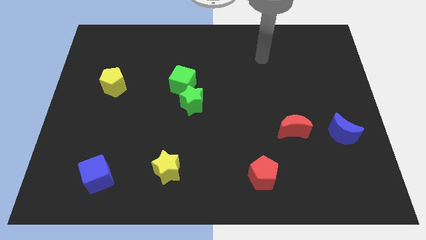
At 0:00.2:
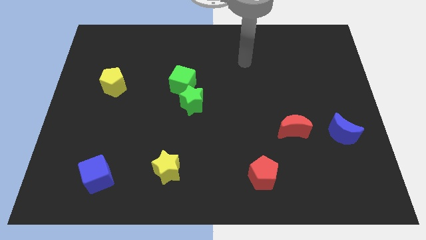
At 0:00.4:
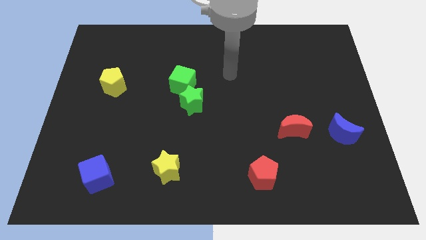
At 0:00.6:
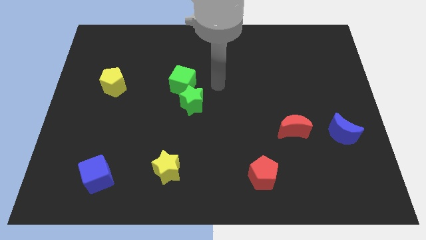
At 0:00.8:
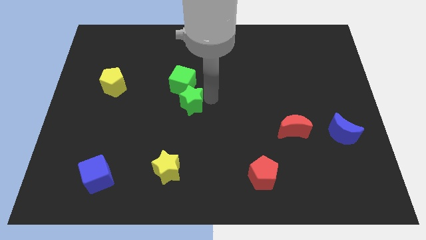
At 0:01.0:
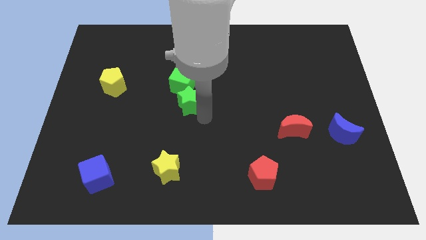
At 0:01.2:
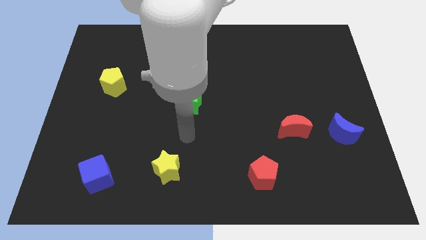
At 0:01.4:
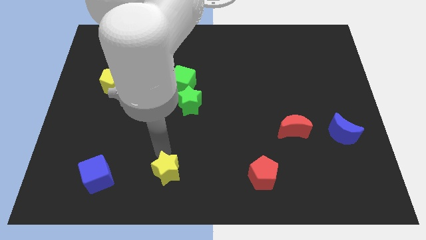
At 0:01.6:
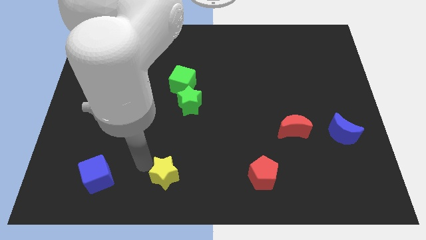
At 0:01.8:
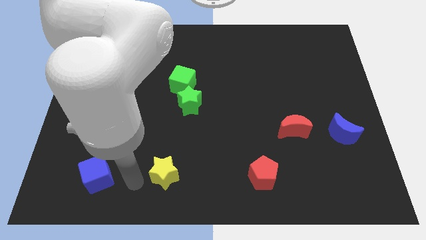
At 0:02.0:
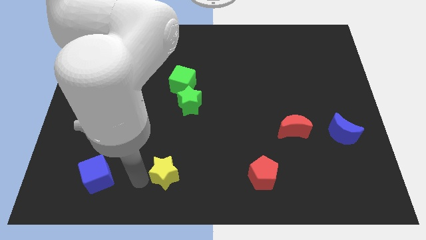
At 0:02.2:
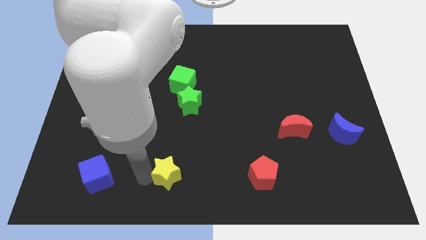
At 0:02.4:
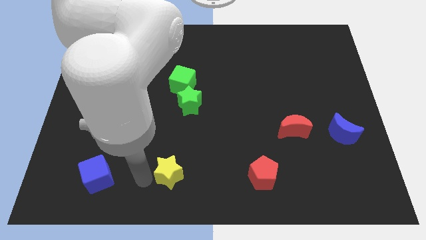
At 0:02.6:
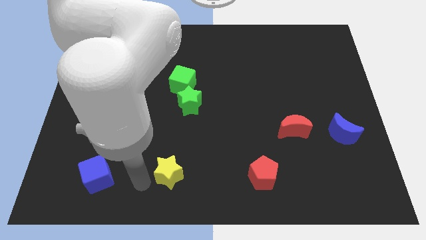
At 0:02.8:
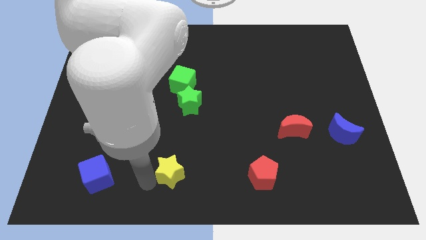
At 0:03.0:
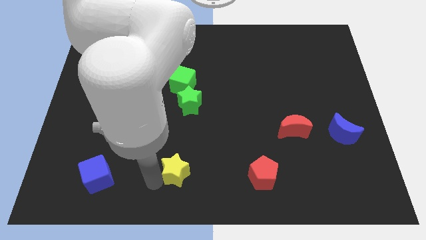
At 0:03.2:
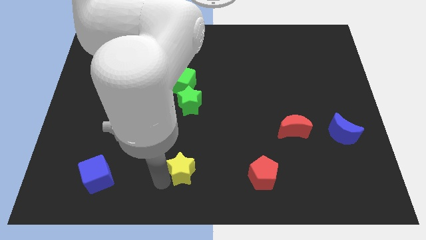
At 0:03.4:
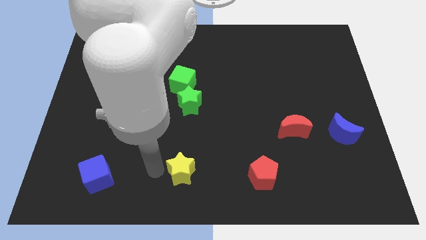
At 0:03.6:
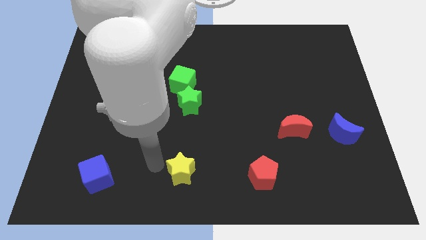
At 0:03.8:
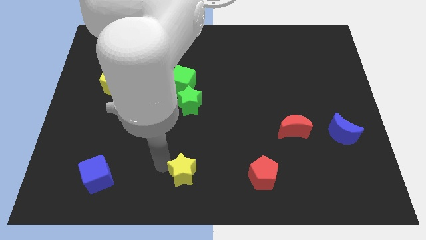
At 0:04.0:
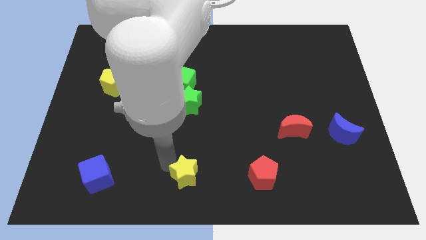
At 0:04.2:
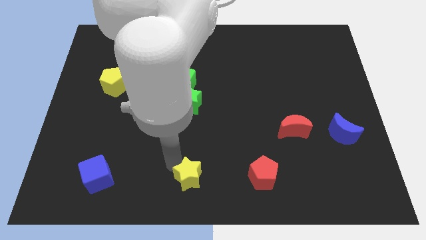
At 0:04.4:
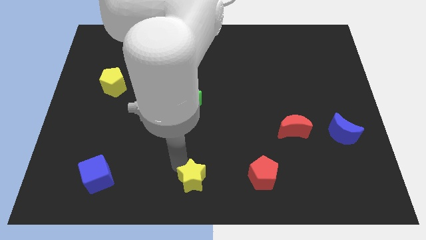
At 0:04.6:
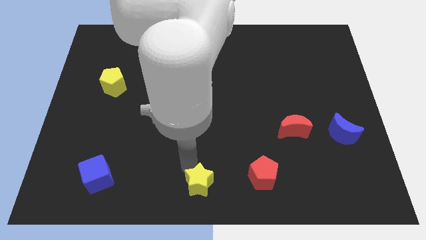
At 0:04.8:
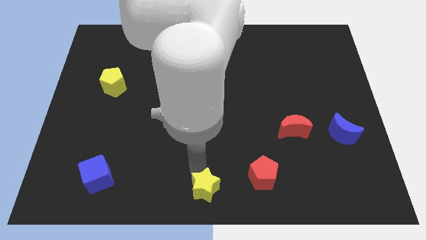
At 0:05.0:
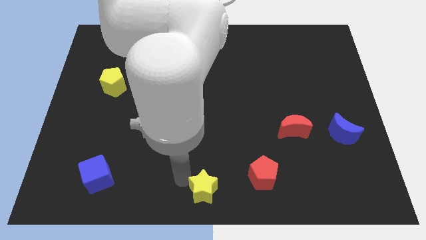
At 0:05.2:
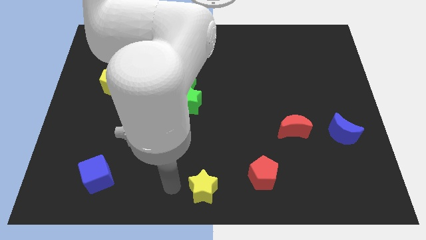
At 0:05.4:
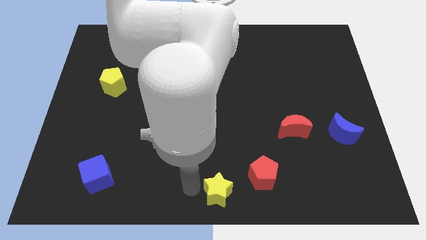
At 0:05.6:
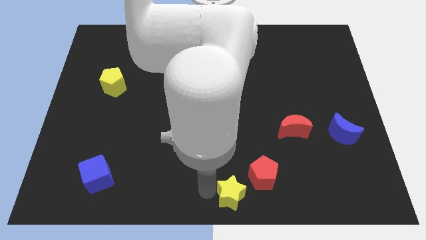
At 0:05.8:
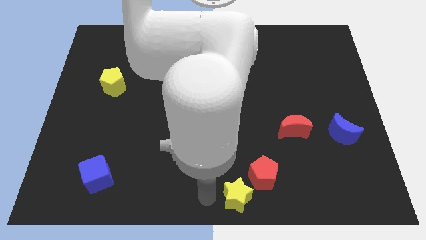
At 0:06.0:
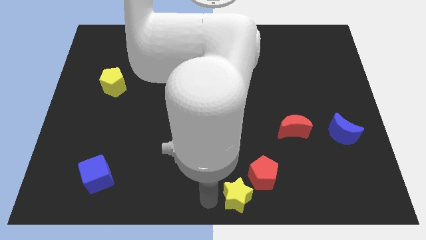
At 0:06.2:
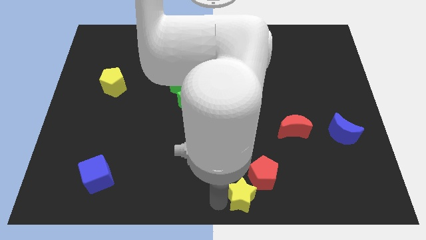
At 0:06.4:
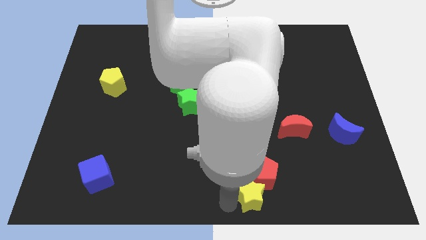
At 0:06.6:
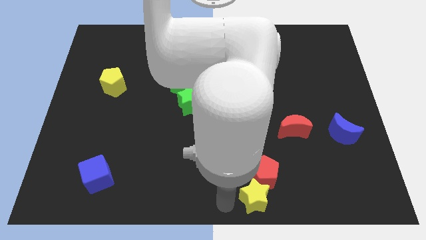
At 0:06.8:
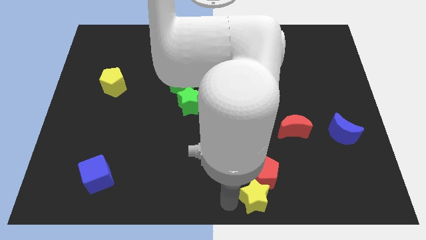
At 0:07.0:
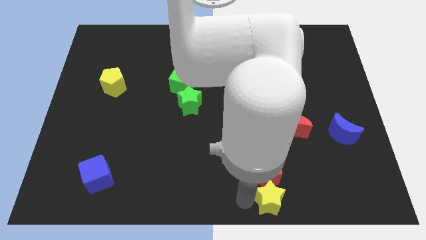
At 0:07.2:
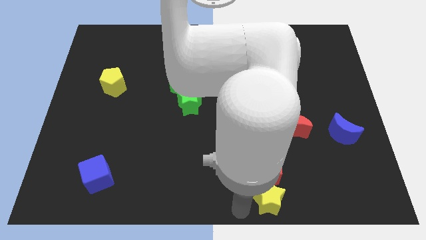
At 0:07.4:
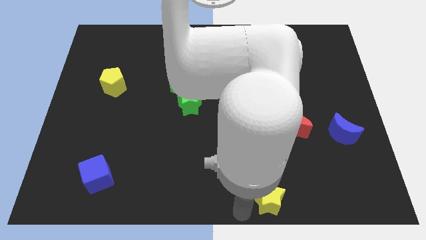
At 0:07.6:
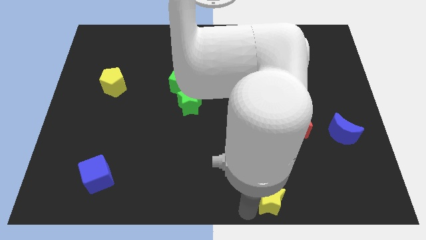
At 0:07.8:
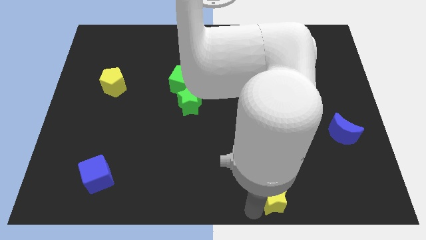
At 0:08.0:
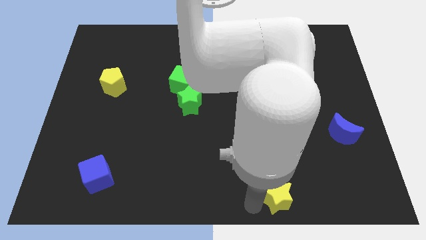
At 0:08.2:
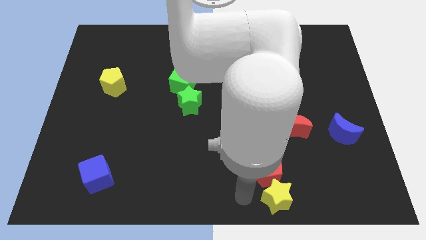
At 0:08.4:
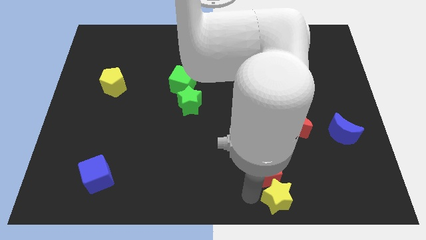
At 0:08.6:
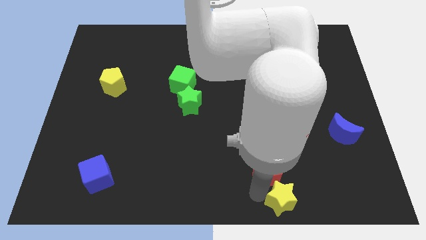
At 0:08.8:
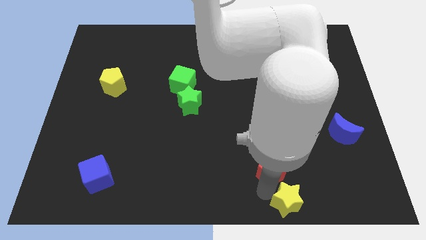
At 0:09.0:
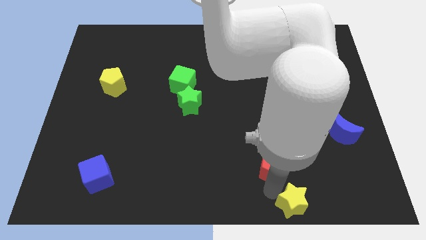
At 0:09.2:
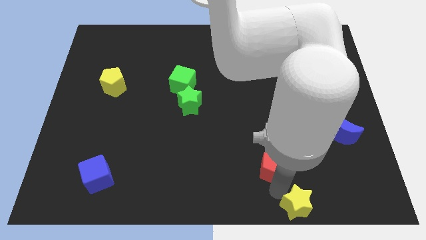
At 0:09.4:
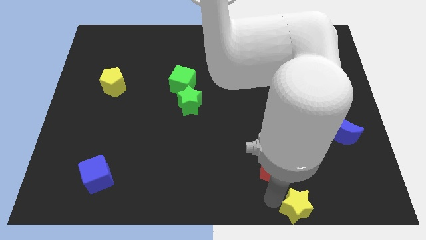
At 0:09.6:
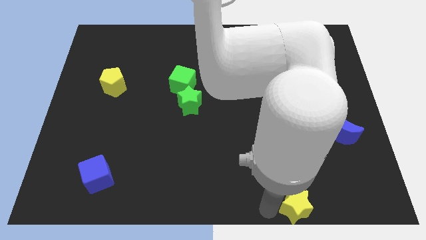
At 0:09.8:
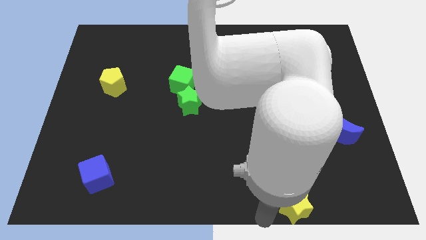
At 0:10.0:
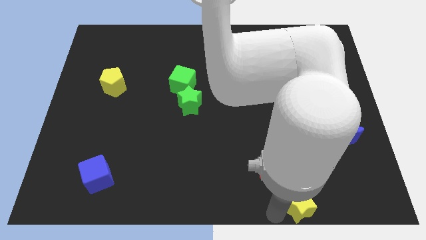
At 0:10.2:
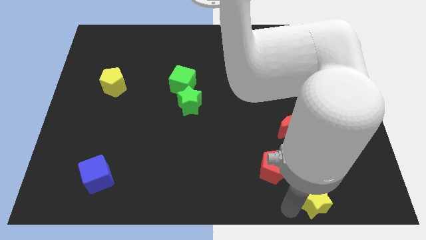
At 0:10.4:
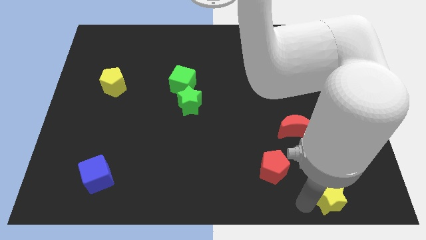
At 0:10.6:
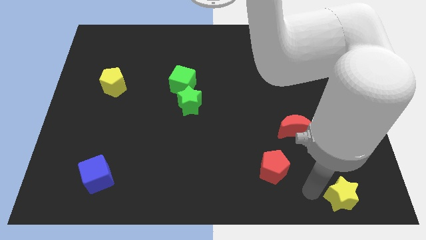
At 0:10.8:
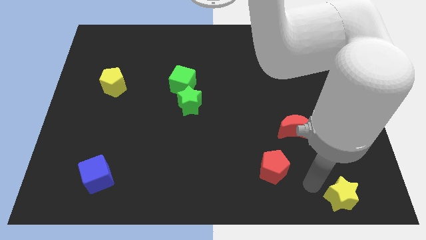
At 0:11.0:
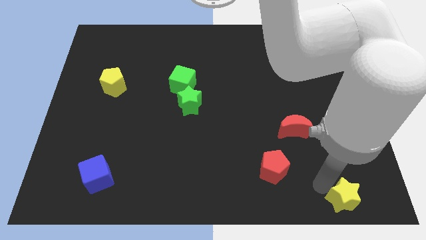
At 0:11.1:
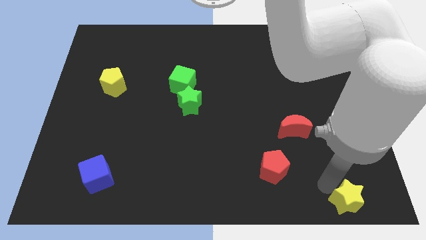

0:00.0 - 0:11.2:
slide the yellow star to the bottom right of the board

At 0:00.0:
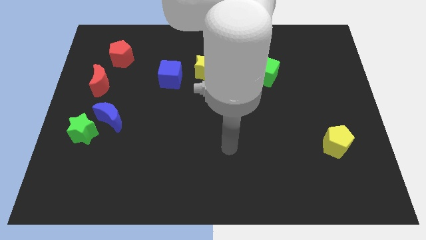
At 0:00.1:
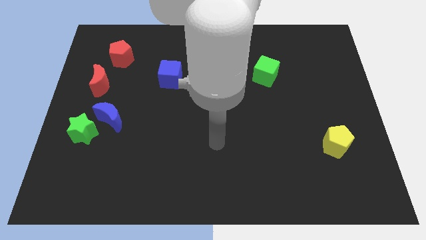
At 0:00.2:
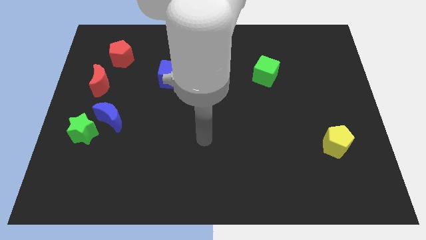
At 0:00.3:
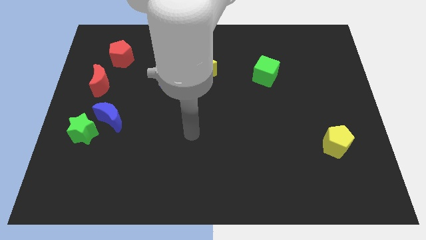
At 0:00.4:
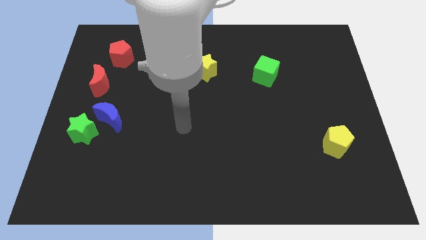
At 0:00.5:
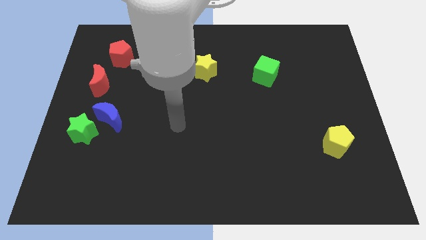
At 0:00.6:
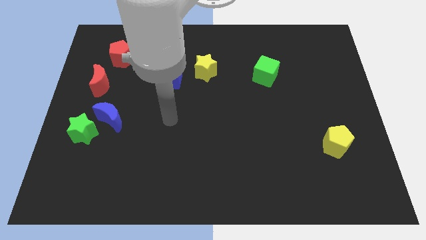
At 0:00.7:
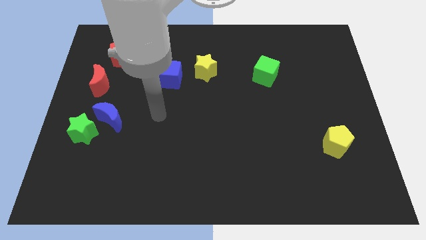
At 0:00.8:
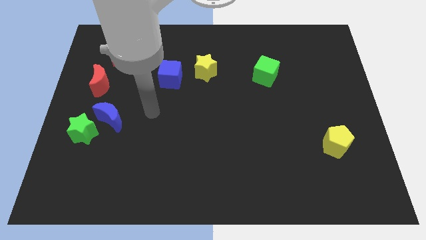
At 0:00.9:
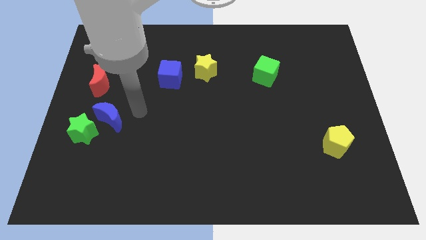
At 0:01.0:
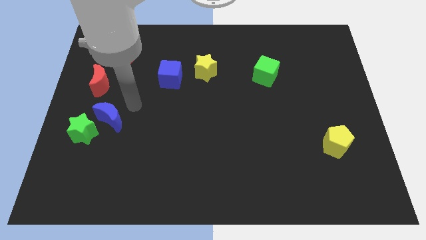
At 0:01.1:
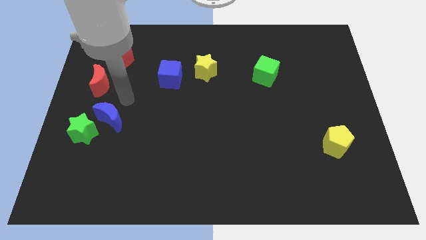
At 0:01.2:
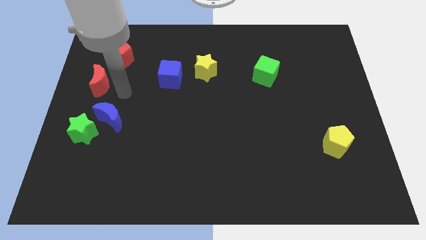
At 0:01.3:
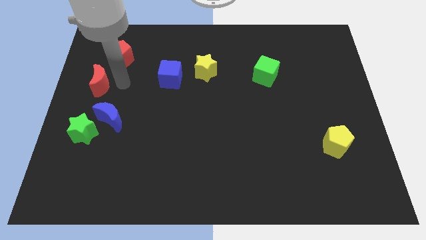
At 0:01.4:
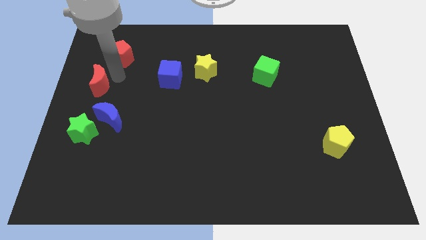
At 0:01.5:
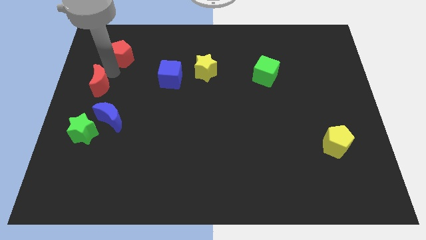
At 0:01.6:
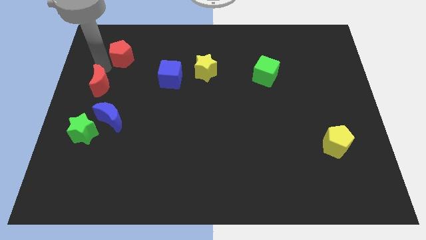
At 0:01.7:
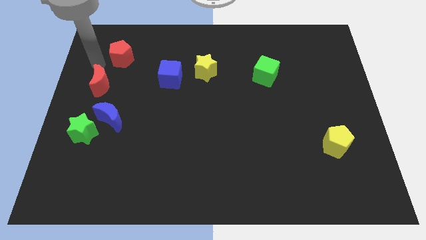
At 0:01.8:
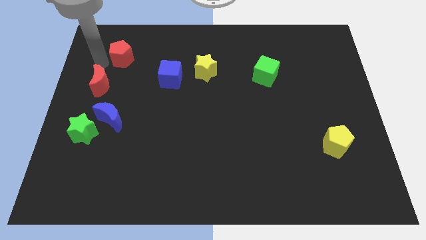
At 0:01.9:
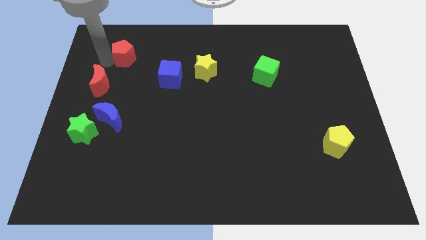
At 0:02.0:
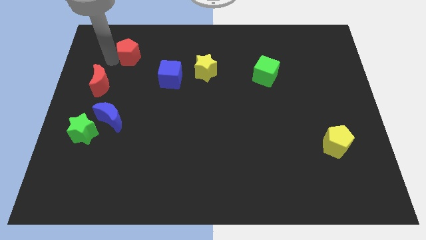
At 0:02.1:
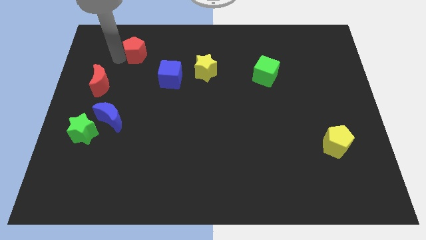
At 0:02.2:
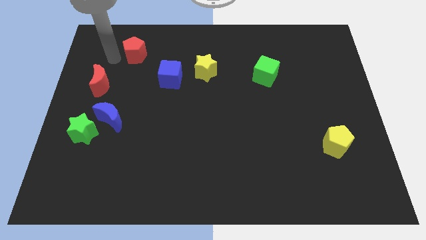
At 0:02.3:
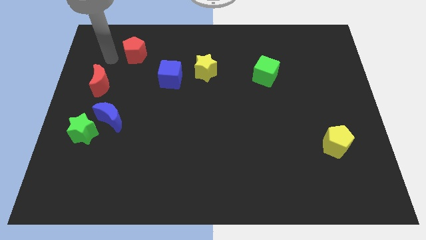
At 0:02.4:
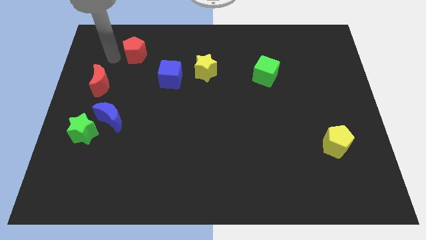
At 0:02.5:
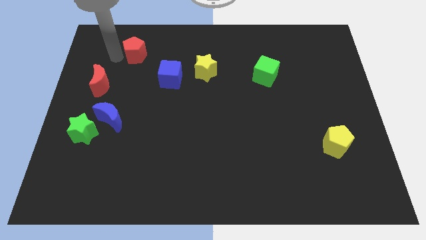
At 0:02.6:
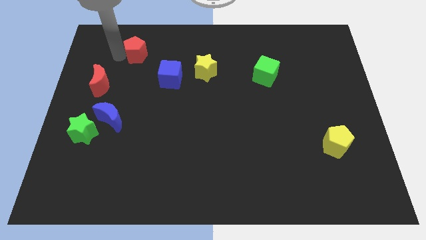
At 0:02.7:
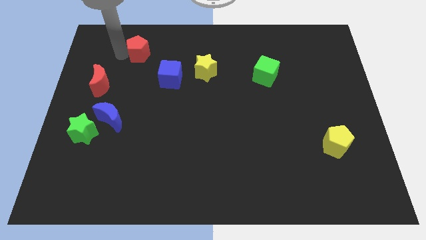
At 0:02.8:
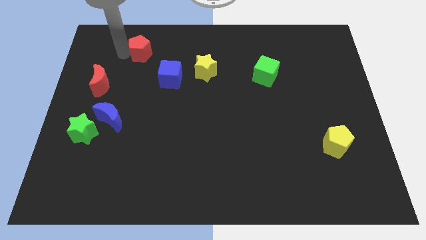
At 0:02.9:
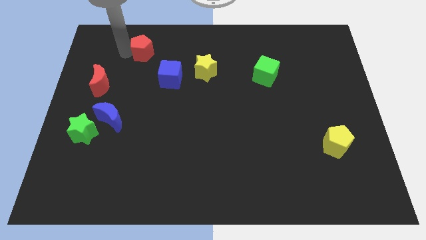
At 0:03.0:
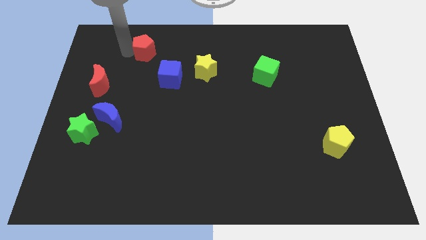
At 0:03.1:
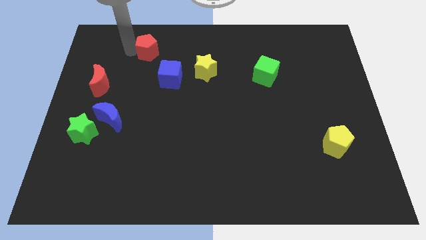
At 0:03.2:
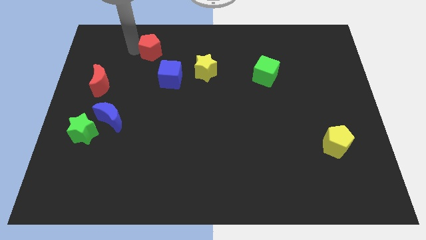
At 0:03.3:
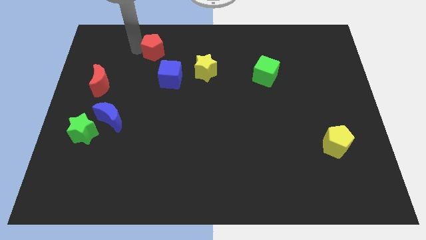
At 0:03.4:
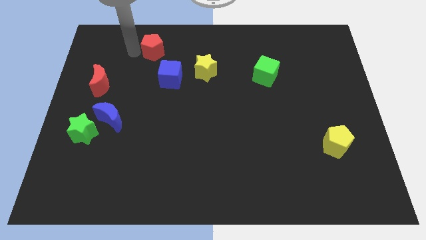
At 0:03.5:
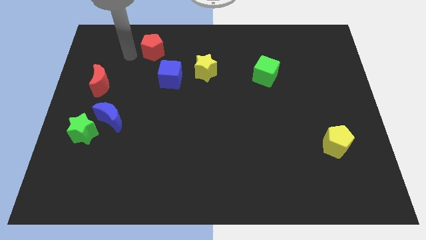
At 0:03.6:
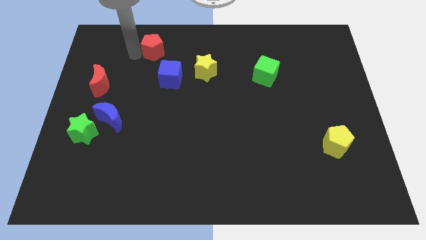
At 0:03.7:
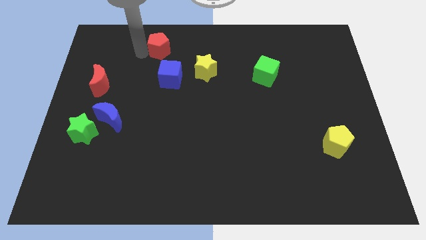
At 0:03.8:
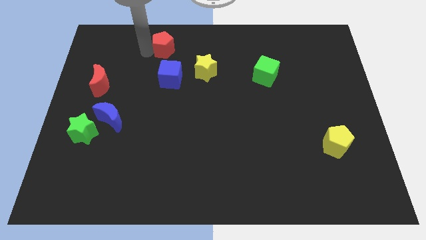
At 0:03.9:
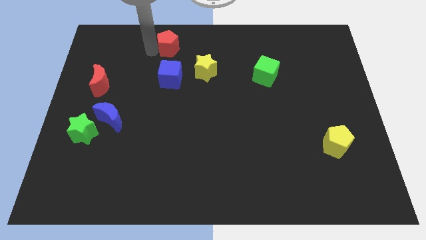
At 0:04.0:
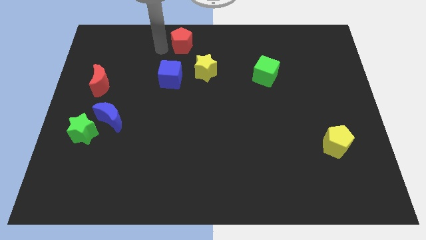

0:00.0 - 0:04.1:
slide the red pentagon to the top side
